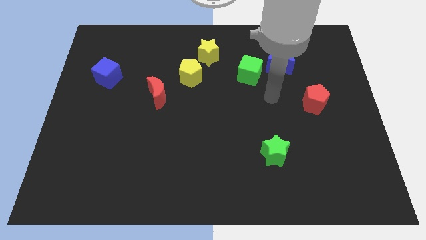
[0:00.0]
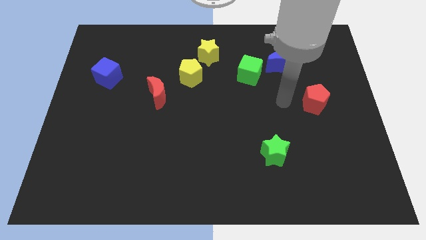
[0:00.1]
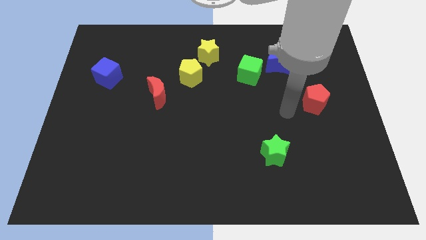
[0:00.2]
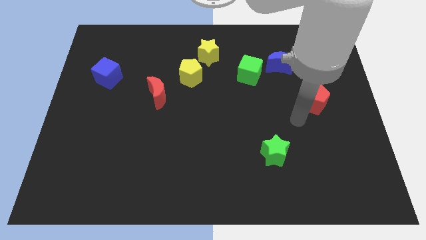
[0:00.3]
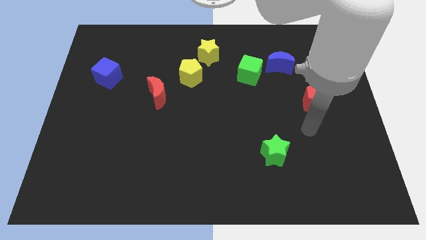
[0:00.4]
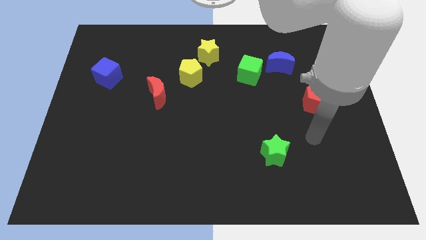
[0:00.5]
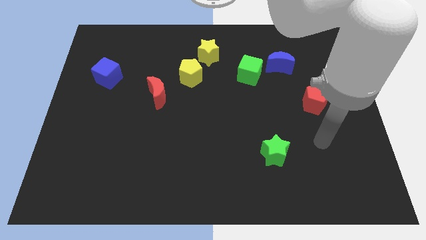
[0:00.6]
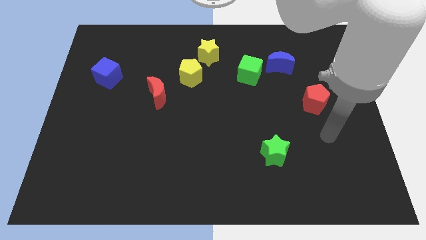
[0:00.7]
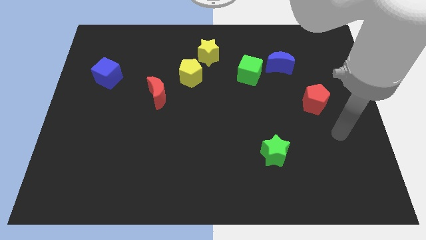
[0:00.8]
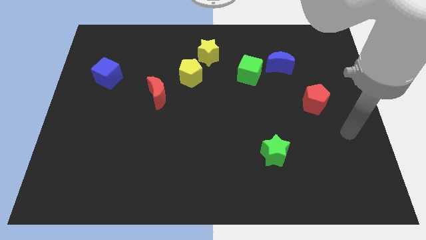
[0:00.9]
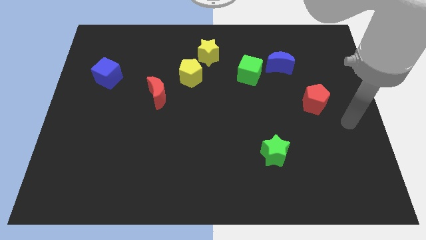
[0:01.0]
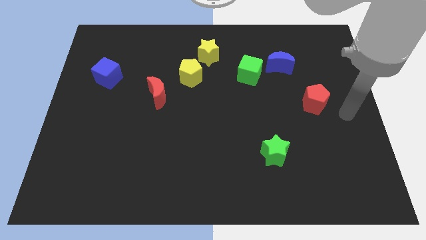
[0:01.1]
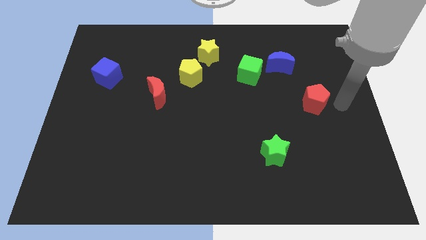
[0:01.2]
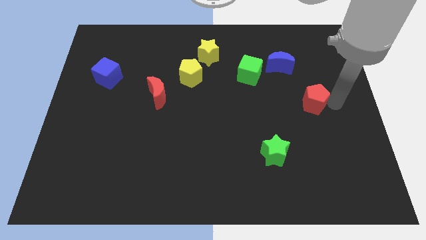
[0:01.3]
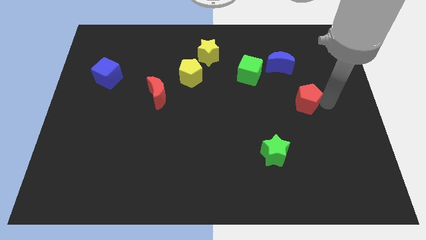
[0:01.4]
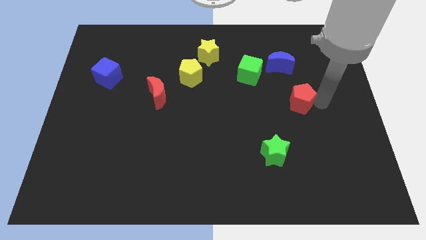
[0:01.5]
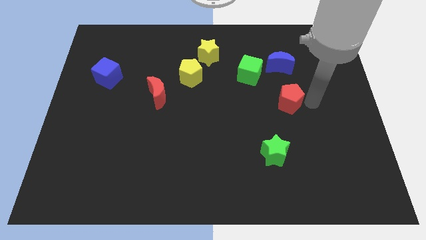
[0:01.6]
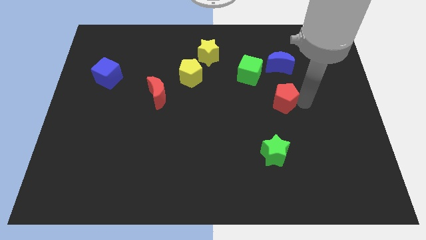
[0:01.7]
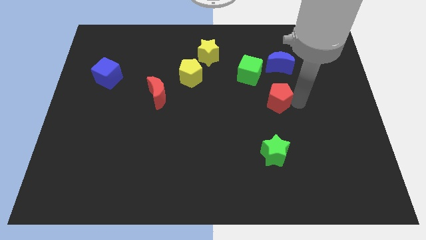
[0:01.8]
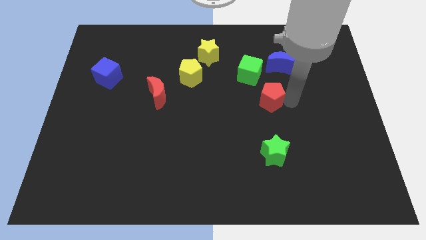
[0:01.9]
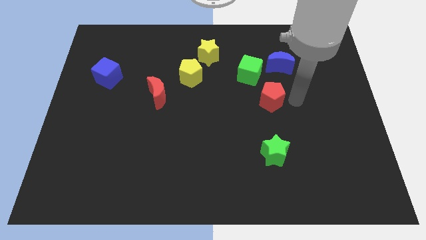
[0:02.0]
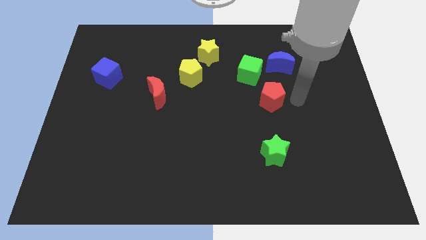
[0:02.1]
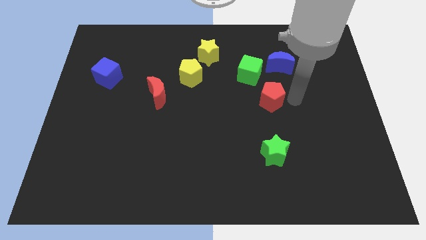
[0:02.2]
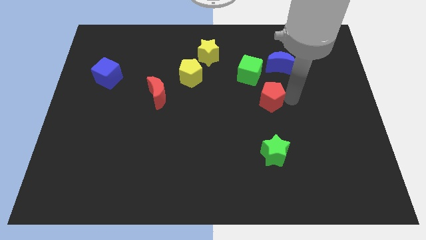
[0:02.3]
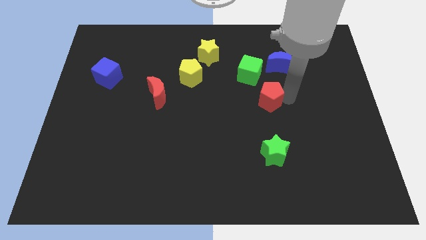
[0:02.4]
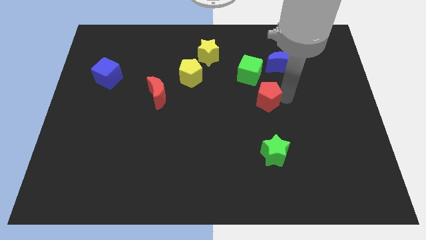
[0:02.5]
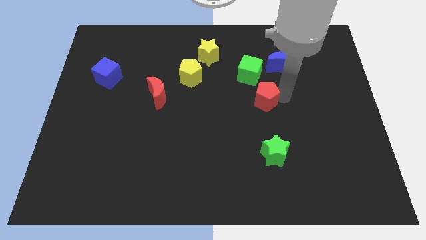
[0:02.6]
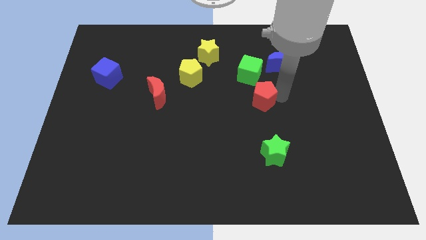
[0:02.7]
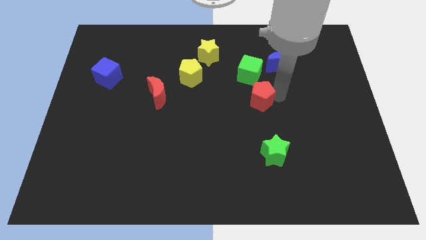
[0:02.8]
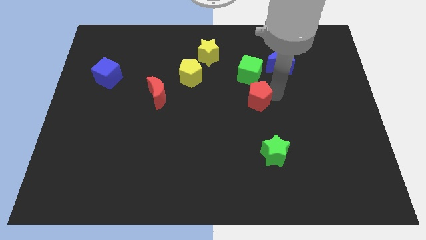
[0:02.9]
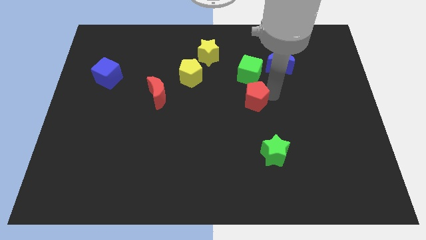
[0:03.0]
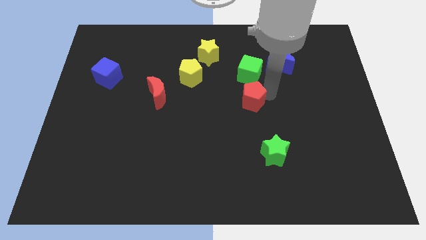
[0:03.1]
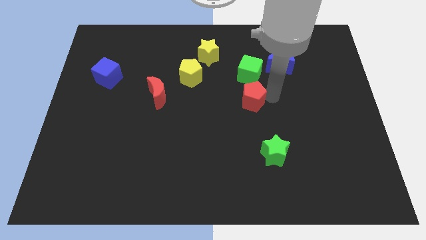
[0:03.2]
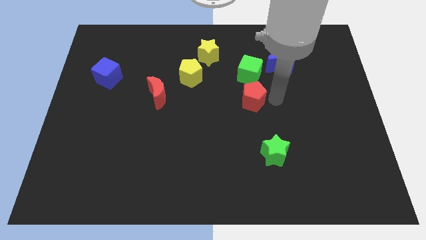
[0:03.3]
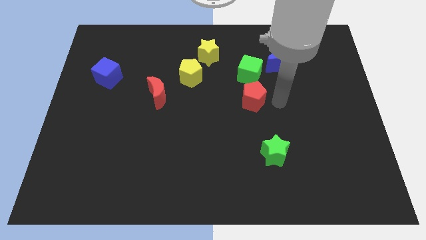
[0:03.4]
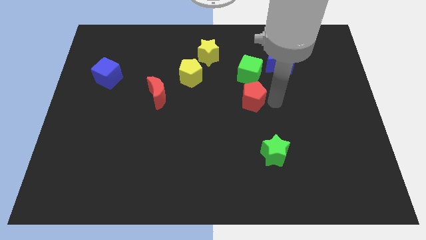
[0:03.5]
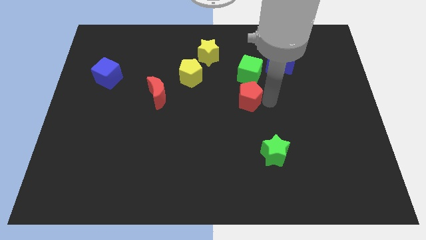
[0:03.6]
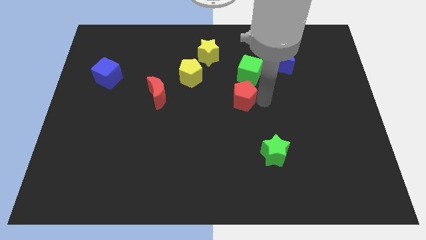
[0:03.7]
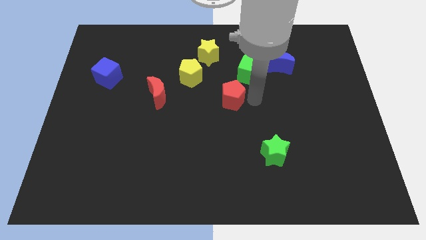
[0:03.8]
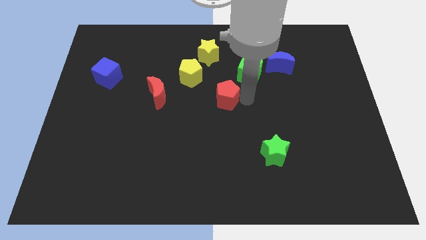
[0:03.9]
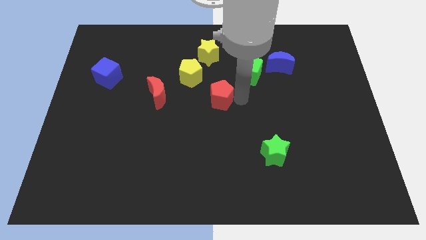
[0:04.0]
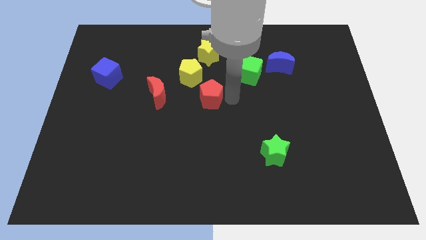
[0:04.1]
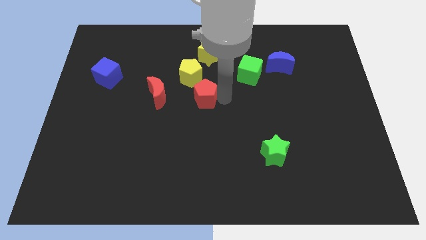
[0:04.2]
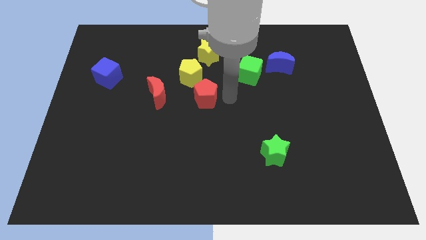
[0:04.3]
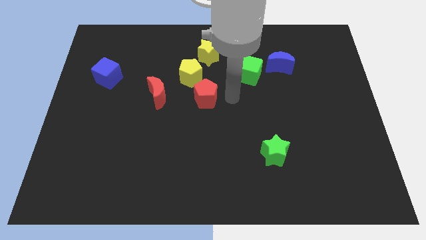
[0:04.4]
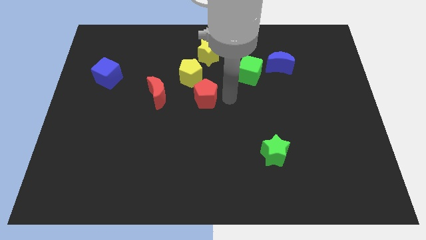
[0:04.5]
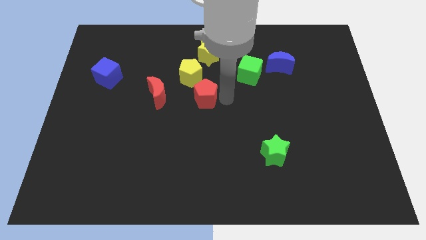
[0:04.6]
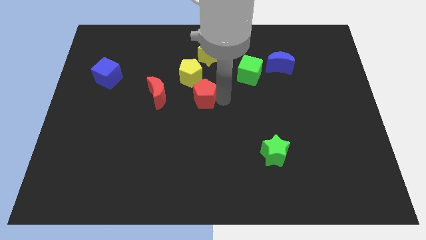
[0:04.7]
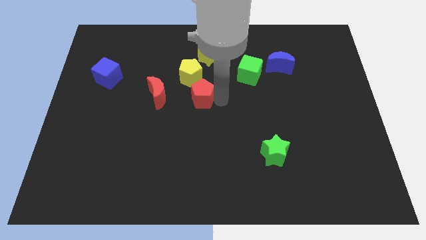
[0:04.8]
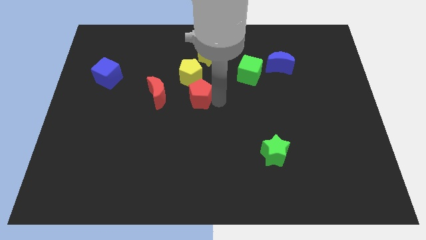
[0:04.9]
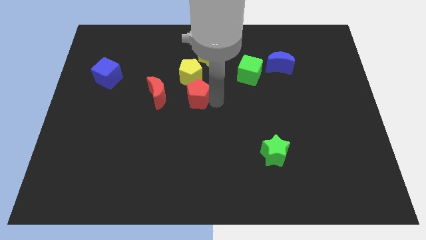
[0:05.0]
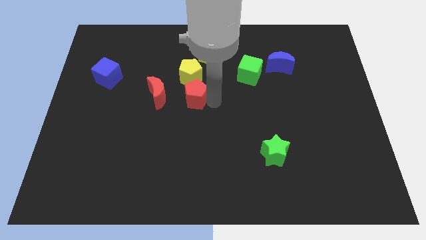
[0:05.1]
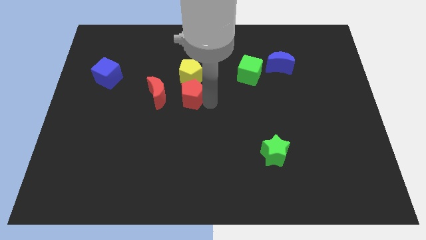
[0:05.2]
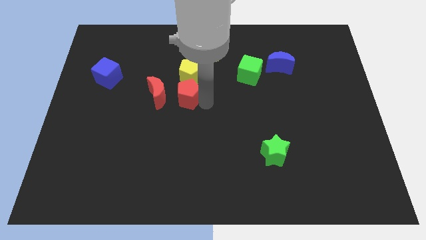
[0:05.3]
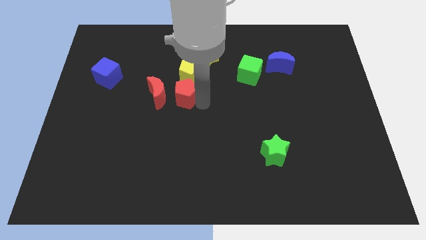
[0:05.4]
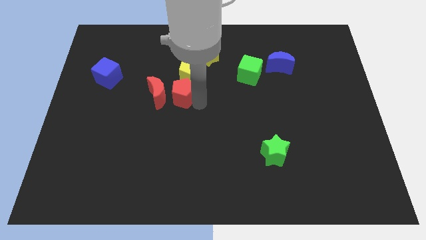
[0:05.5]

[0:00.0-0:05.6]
put the red pentagon close to the red moon

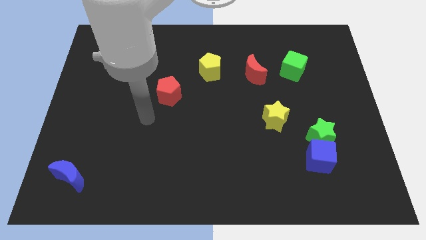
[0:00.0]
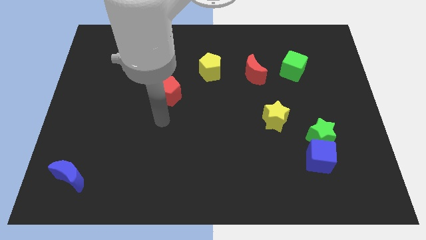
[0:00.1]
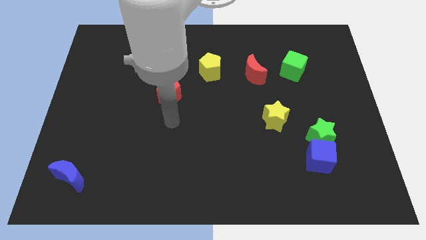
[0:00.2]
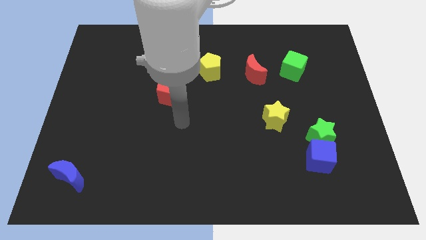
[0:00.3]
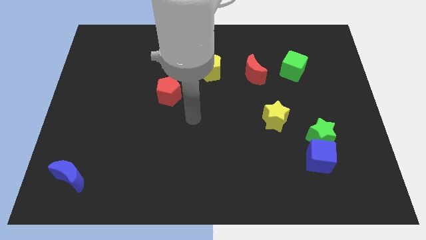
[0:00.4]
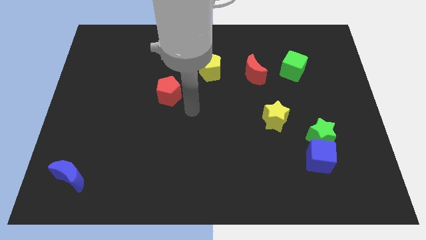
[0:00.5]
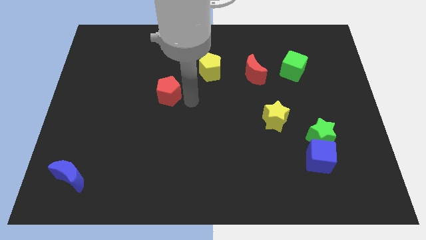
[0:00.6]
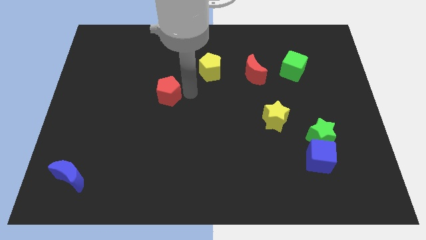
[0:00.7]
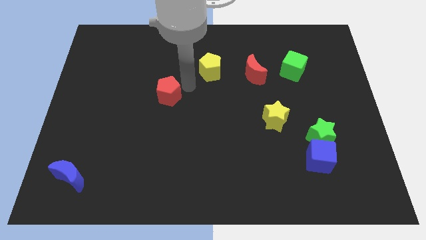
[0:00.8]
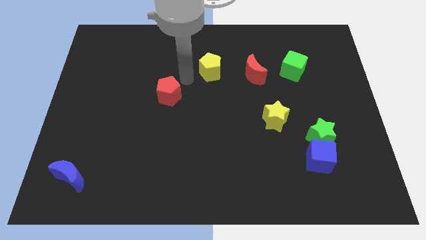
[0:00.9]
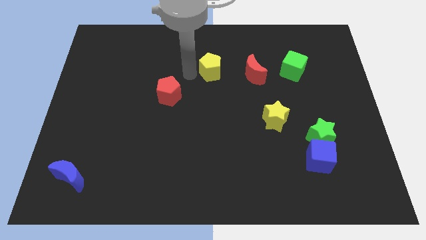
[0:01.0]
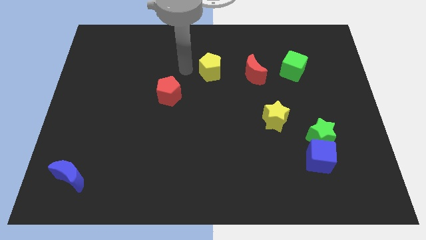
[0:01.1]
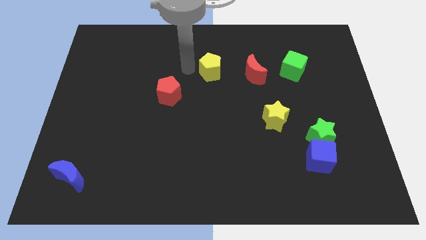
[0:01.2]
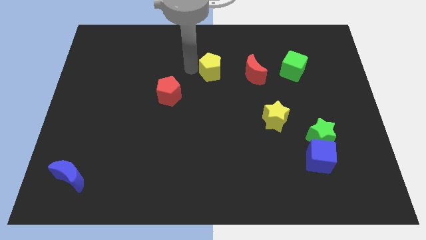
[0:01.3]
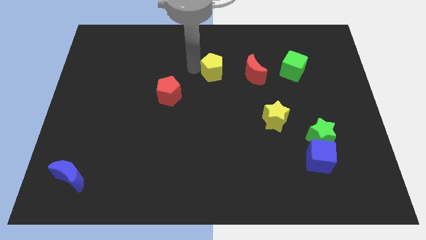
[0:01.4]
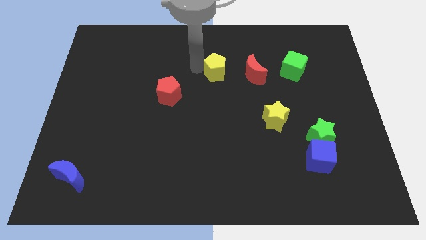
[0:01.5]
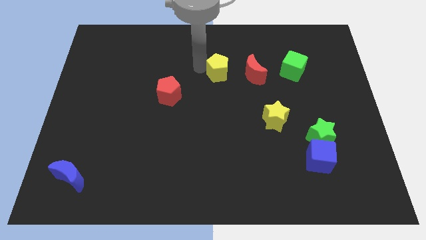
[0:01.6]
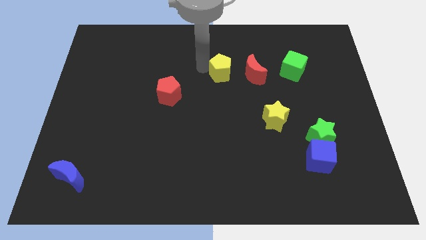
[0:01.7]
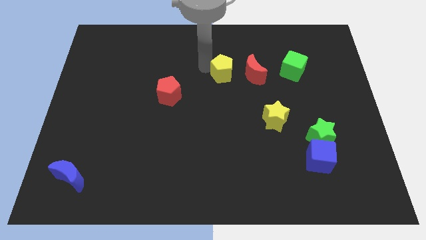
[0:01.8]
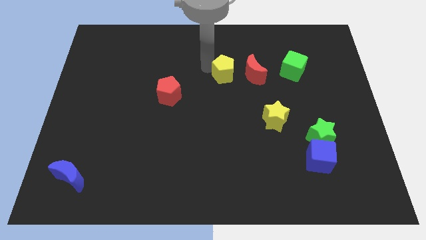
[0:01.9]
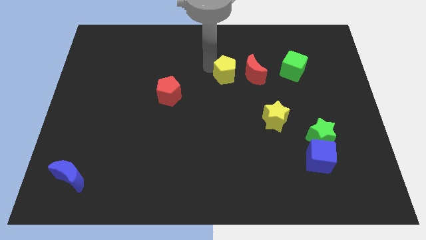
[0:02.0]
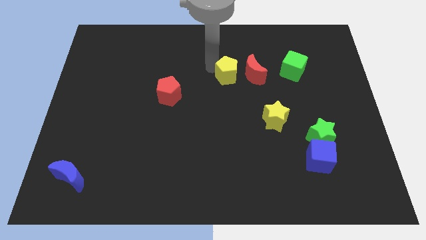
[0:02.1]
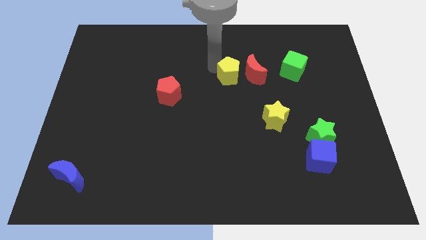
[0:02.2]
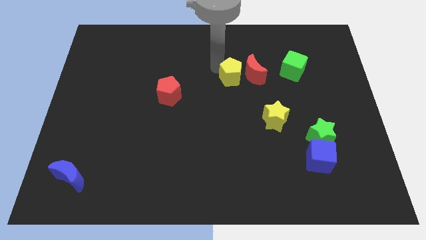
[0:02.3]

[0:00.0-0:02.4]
put the yellow pentagon next to the red moon
